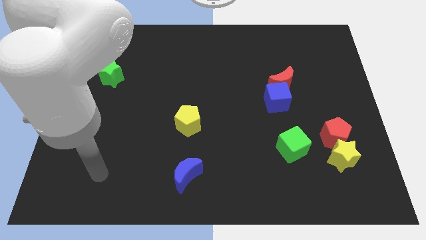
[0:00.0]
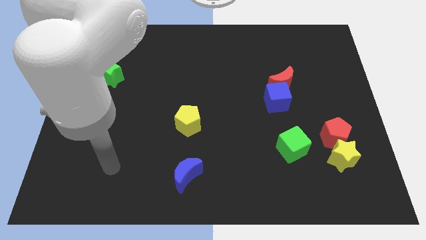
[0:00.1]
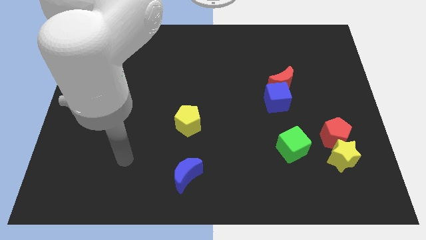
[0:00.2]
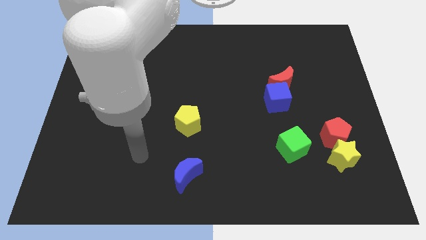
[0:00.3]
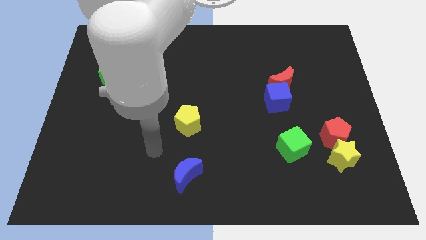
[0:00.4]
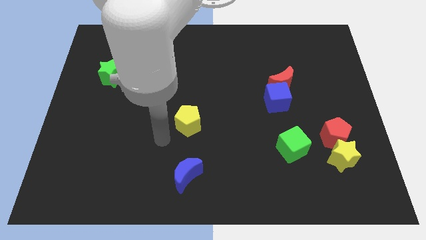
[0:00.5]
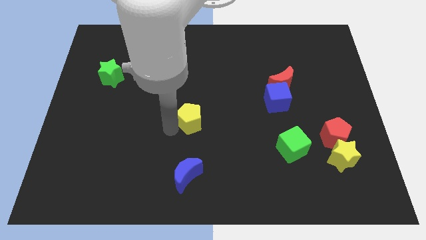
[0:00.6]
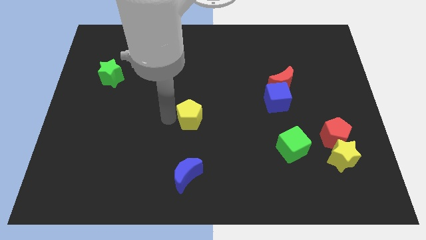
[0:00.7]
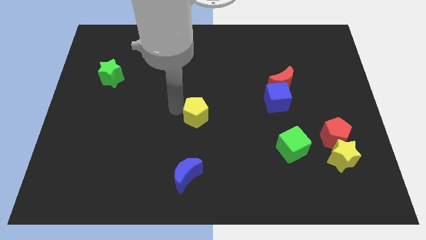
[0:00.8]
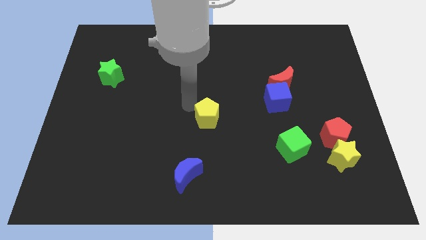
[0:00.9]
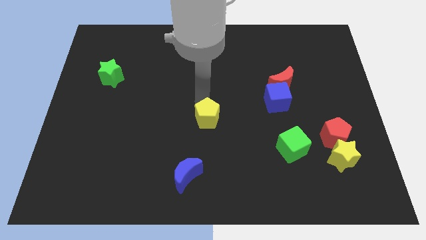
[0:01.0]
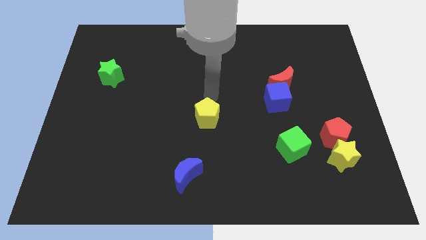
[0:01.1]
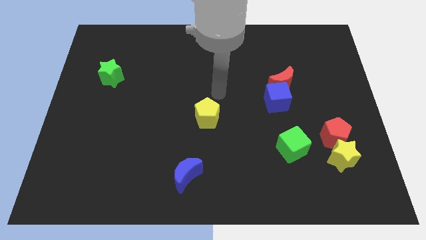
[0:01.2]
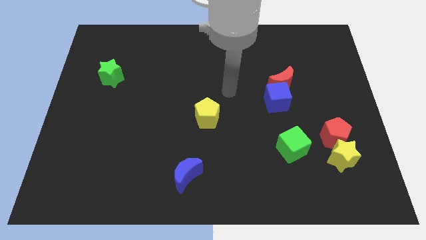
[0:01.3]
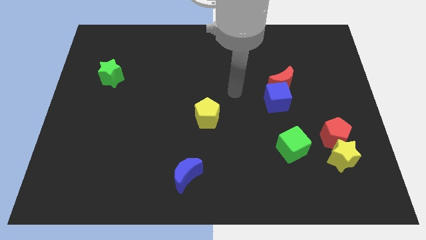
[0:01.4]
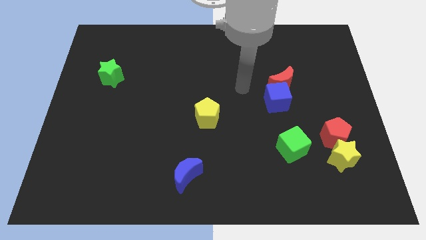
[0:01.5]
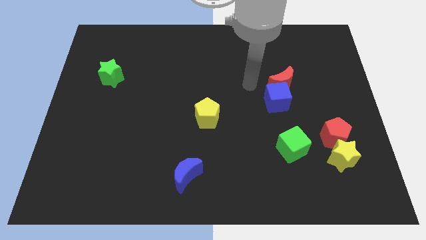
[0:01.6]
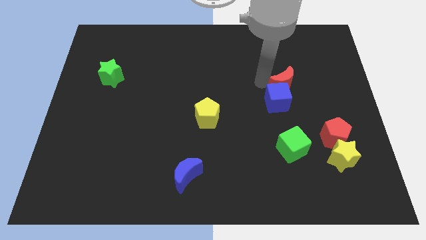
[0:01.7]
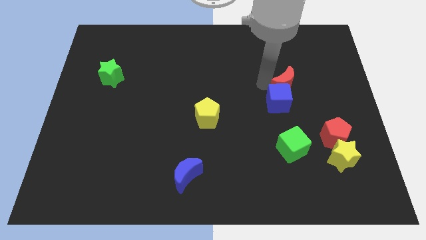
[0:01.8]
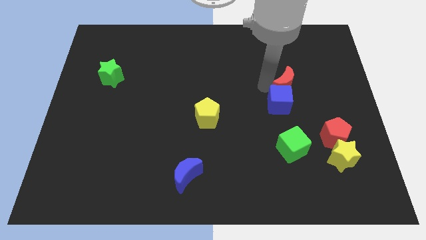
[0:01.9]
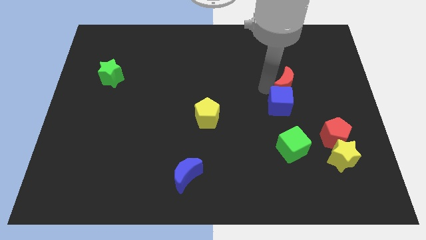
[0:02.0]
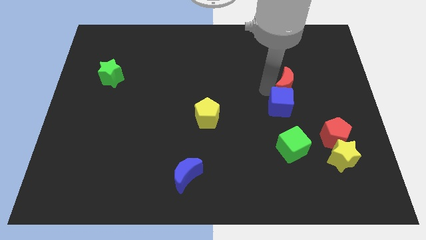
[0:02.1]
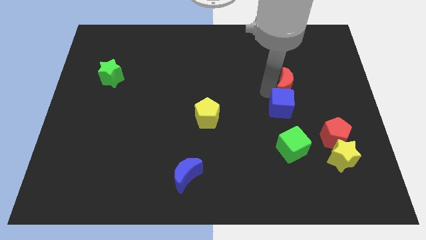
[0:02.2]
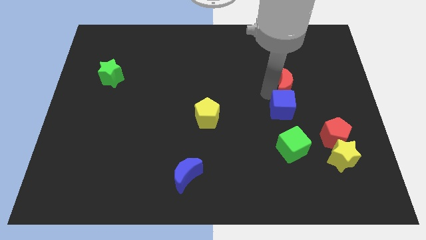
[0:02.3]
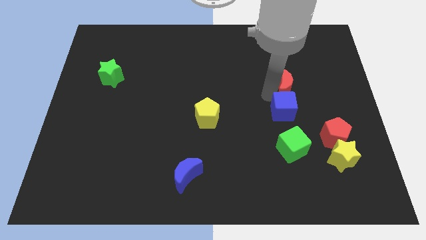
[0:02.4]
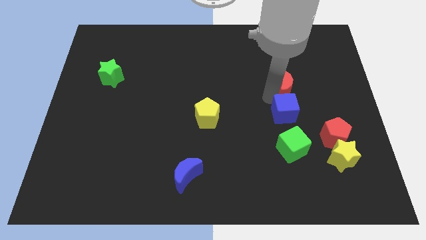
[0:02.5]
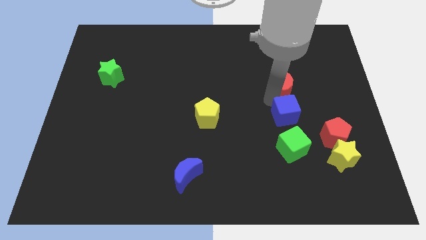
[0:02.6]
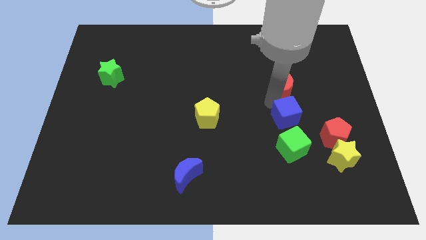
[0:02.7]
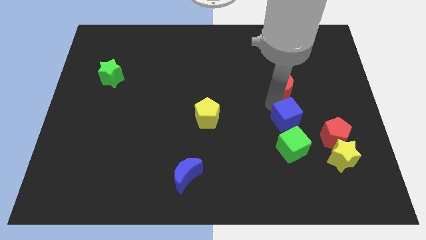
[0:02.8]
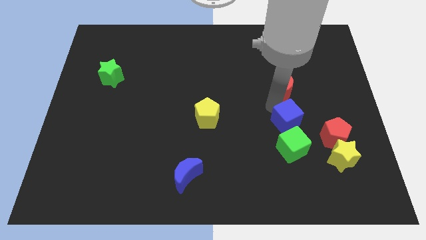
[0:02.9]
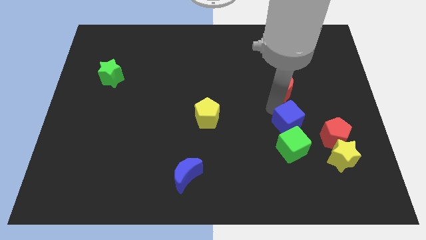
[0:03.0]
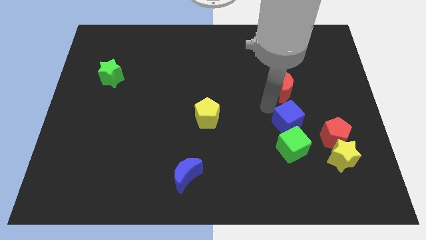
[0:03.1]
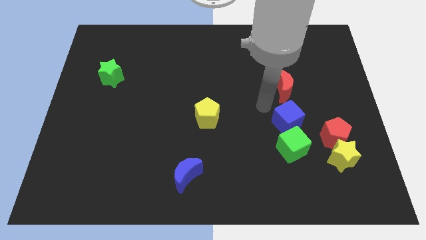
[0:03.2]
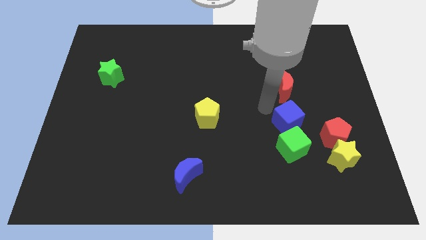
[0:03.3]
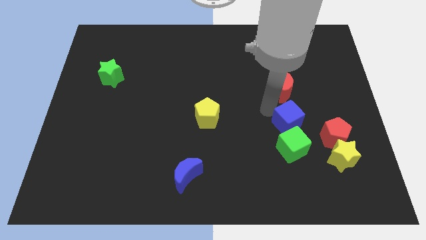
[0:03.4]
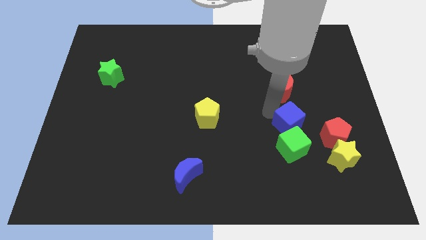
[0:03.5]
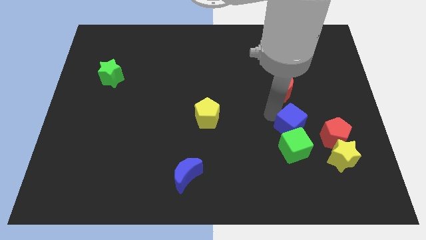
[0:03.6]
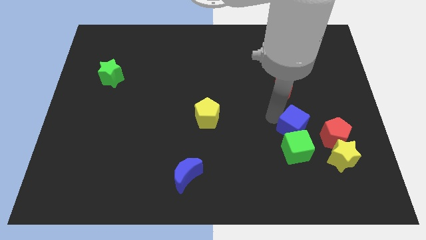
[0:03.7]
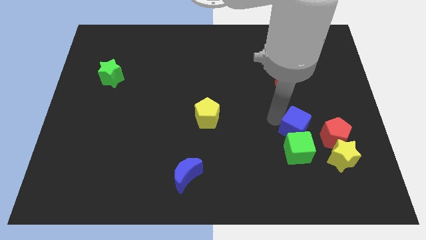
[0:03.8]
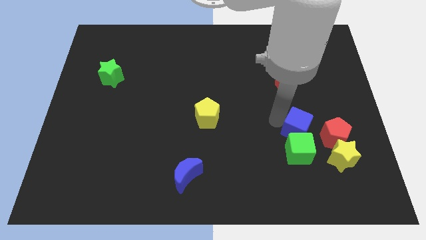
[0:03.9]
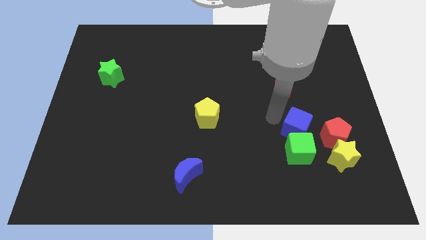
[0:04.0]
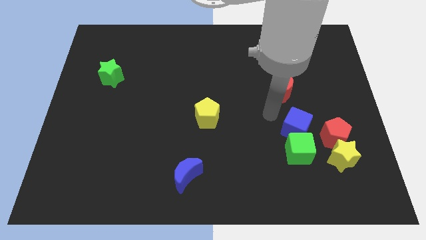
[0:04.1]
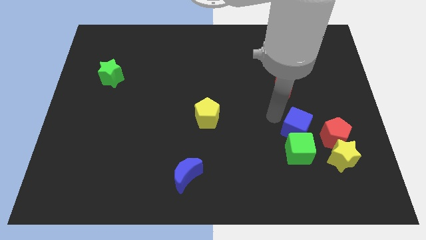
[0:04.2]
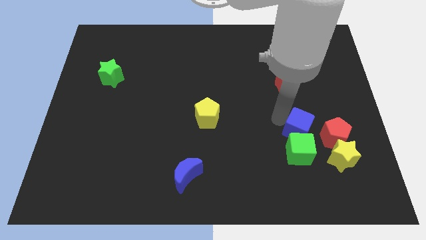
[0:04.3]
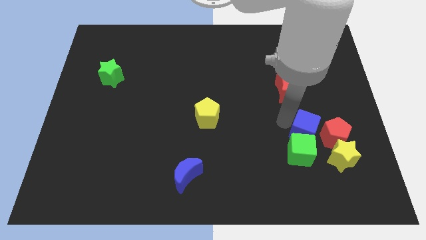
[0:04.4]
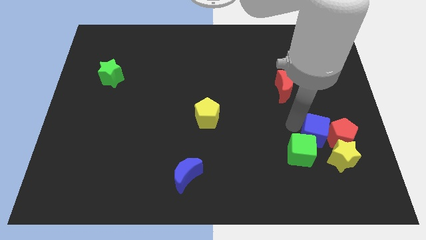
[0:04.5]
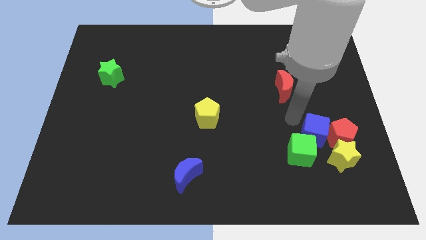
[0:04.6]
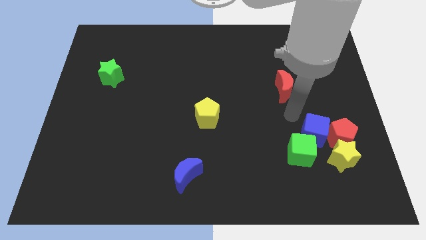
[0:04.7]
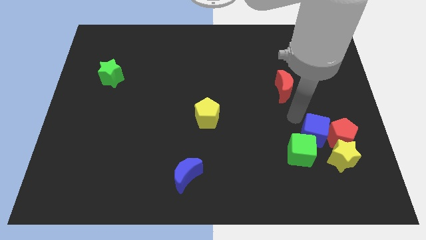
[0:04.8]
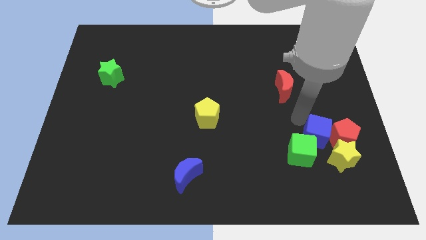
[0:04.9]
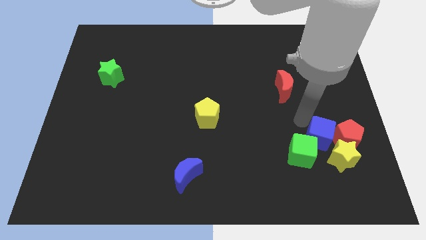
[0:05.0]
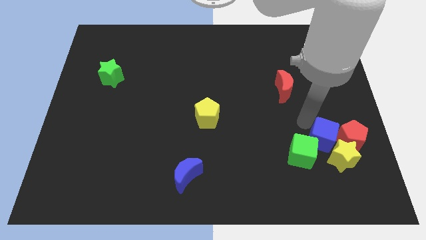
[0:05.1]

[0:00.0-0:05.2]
slide the blue cube next to the yellow star

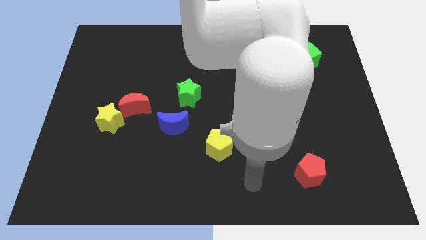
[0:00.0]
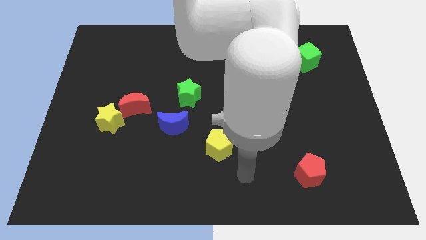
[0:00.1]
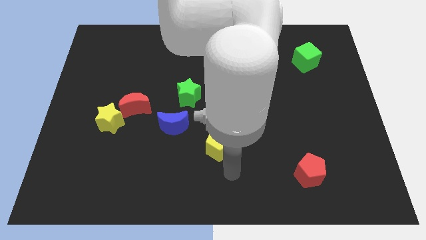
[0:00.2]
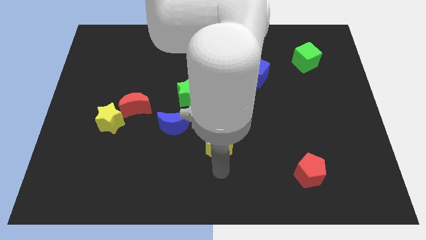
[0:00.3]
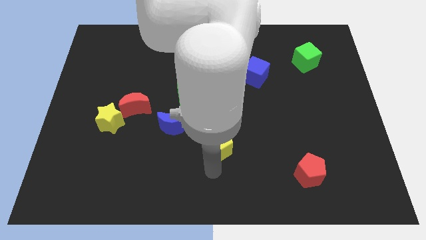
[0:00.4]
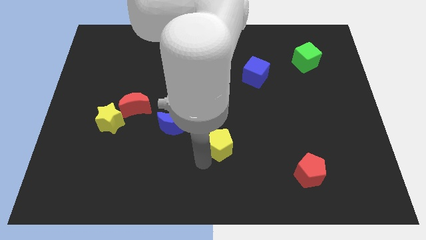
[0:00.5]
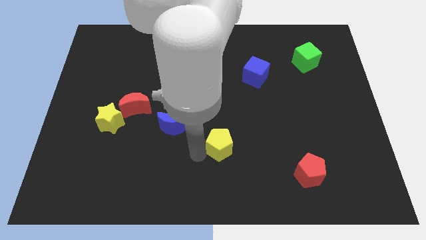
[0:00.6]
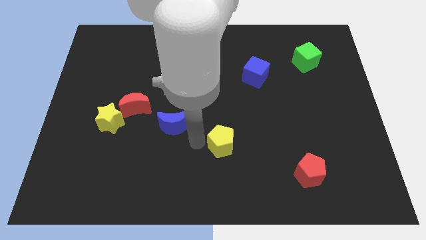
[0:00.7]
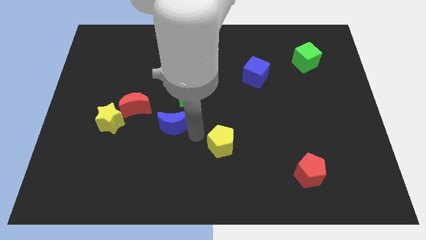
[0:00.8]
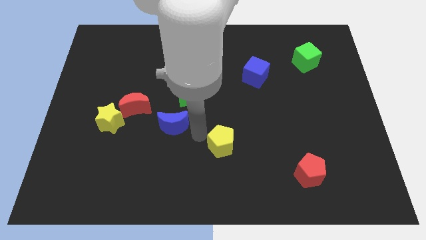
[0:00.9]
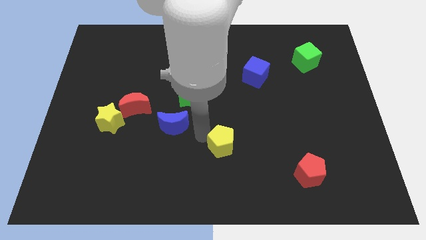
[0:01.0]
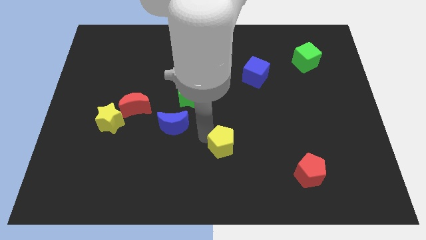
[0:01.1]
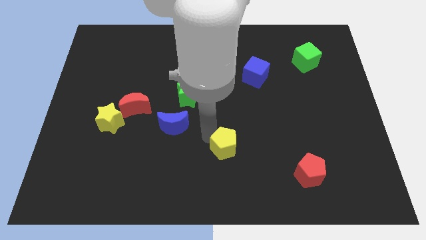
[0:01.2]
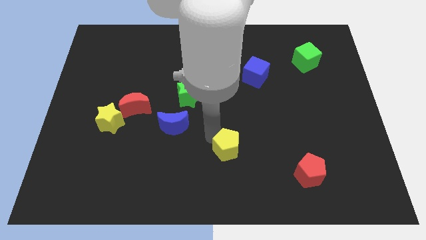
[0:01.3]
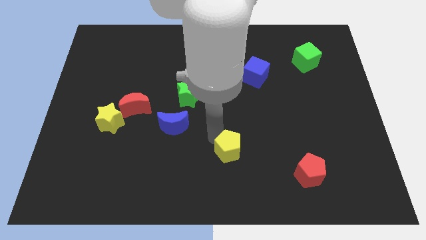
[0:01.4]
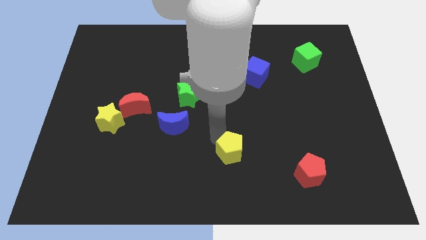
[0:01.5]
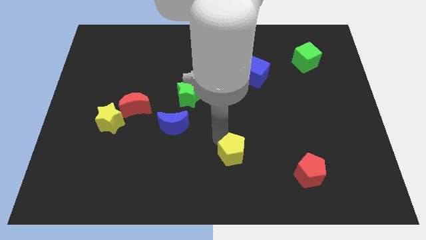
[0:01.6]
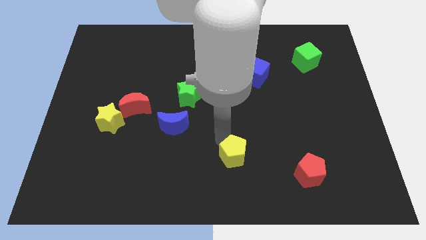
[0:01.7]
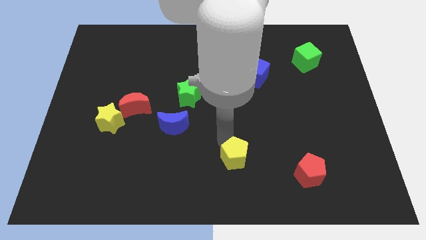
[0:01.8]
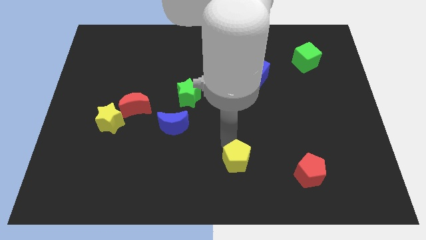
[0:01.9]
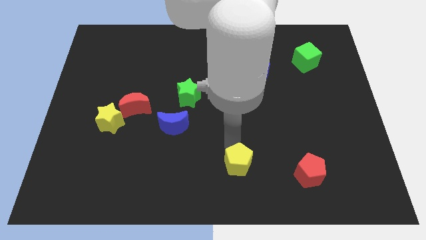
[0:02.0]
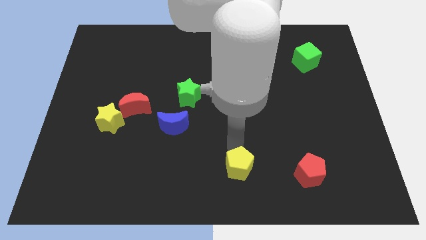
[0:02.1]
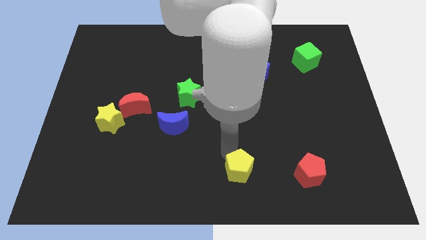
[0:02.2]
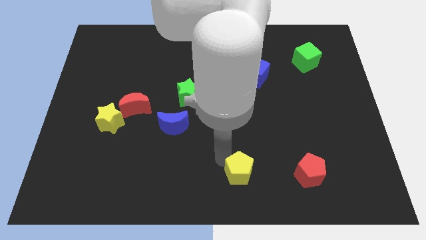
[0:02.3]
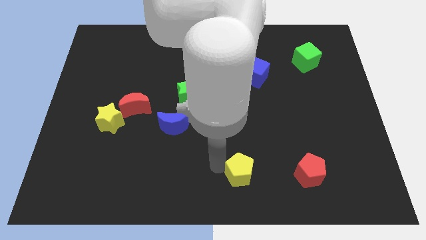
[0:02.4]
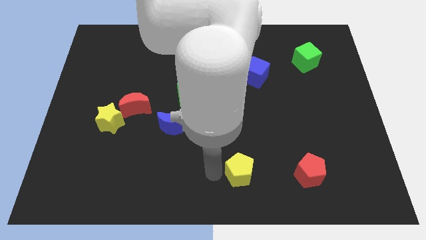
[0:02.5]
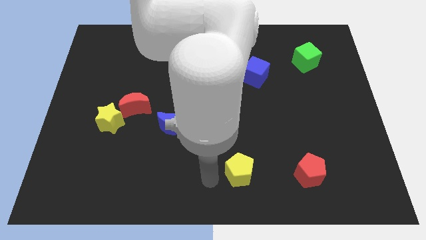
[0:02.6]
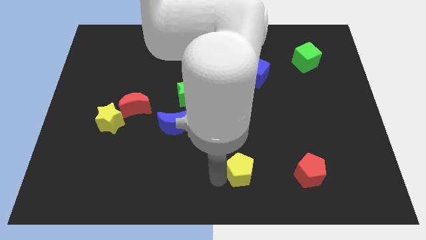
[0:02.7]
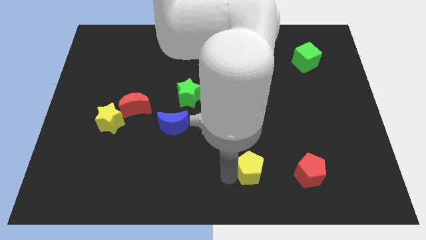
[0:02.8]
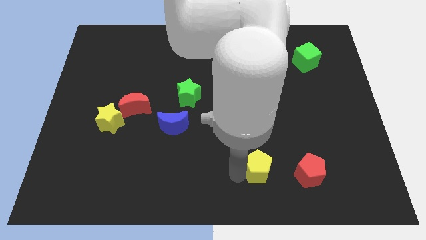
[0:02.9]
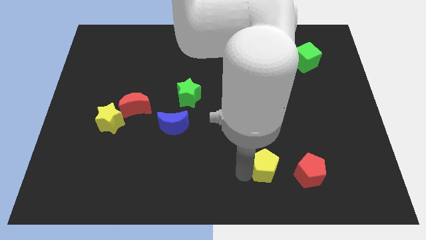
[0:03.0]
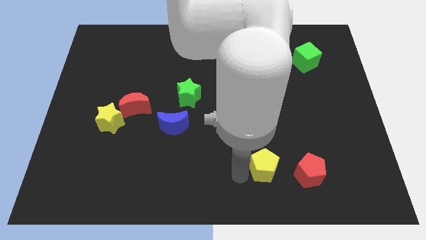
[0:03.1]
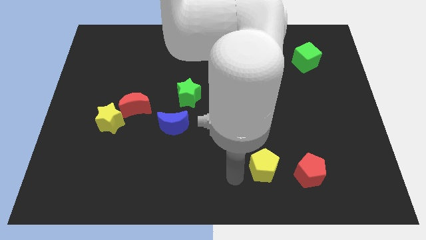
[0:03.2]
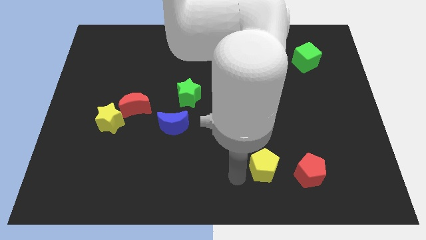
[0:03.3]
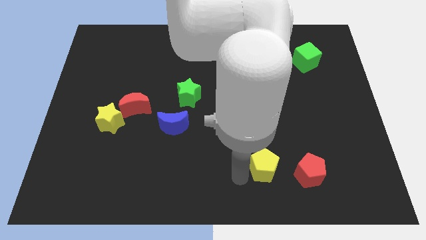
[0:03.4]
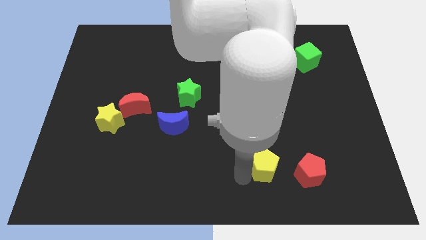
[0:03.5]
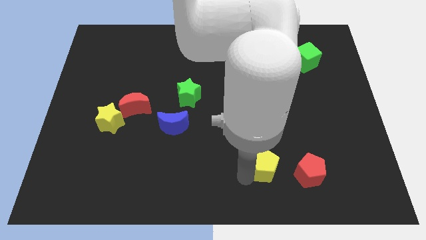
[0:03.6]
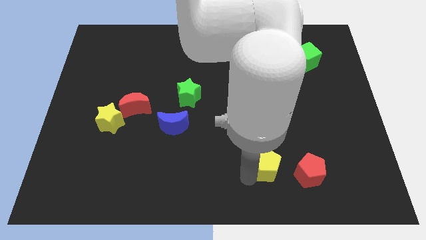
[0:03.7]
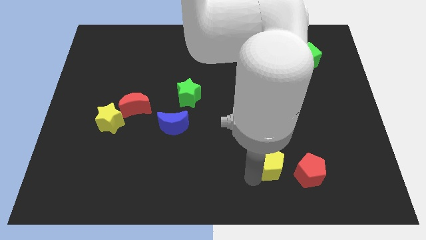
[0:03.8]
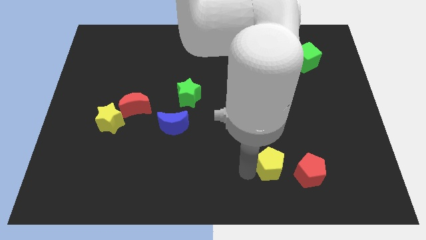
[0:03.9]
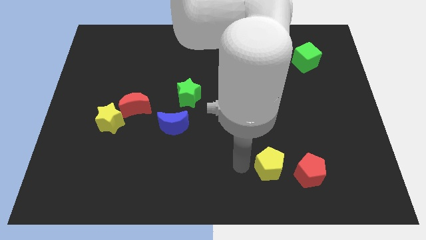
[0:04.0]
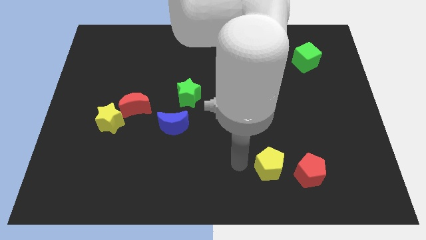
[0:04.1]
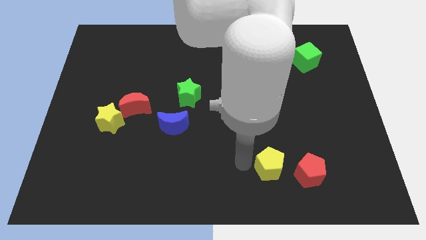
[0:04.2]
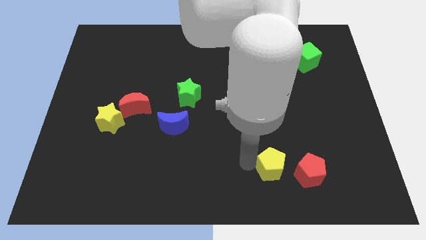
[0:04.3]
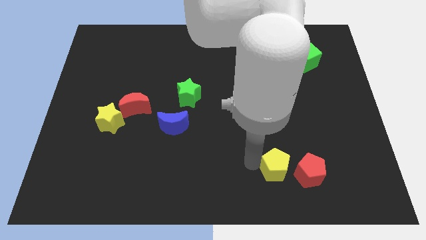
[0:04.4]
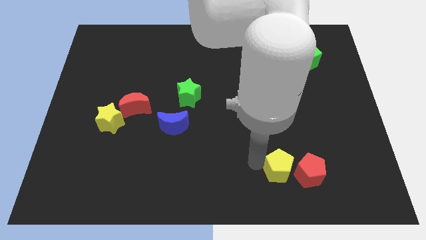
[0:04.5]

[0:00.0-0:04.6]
push the yellow pentagon to the red pentagon
